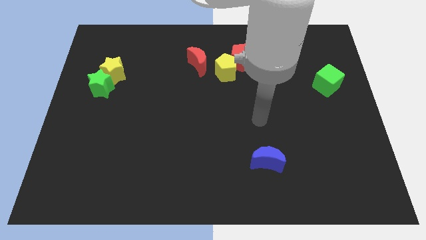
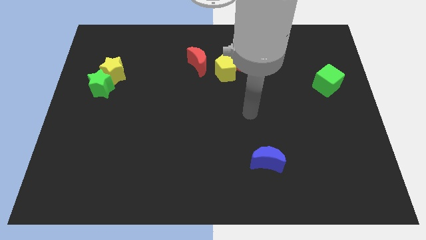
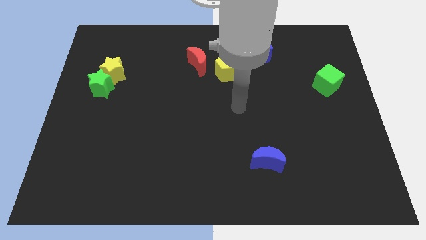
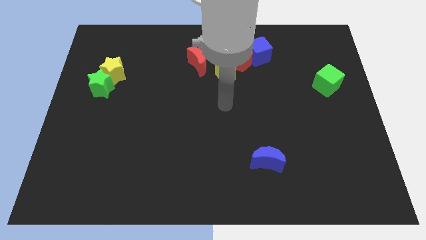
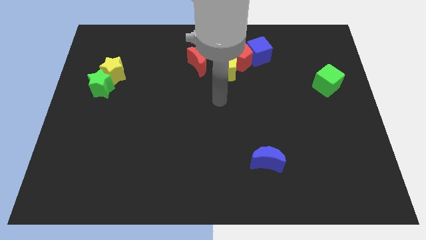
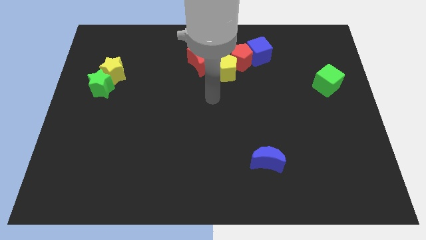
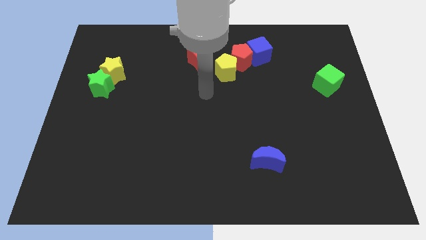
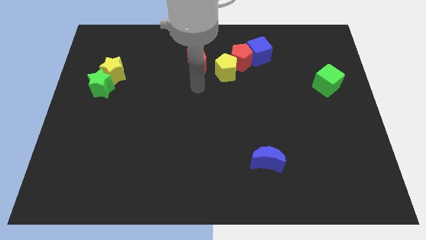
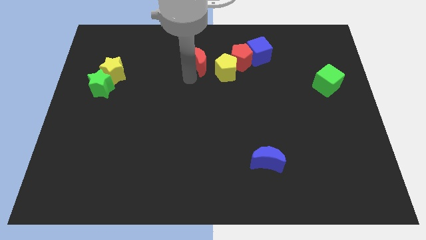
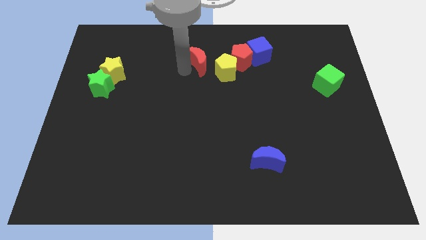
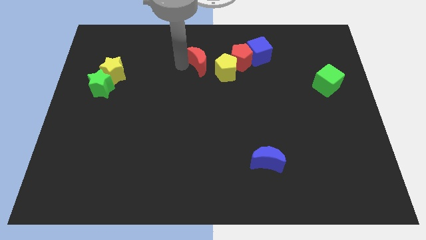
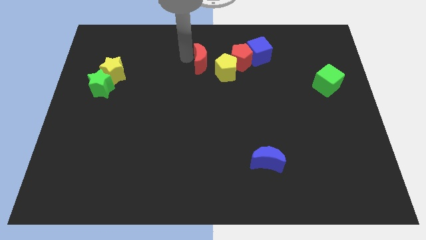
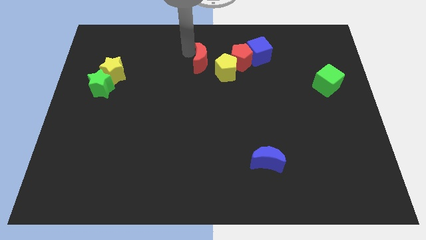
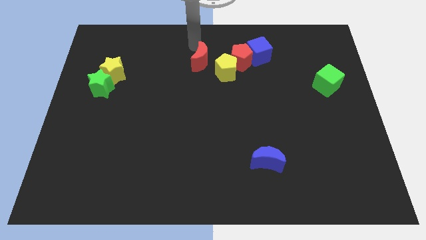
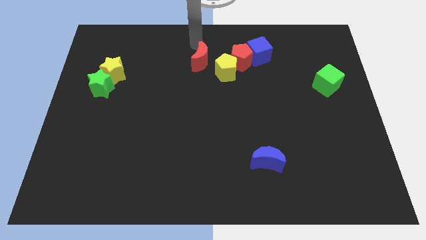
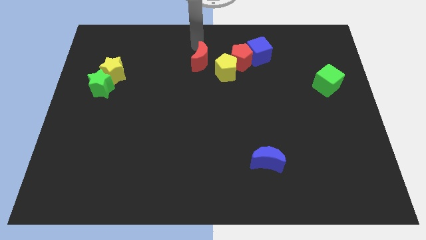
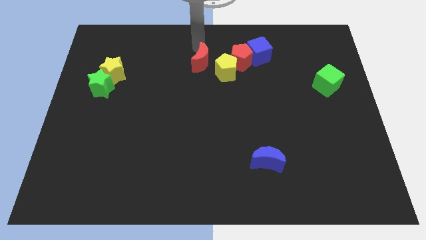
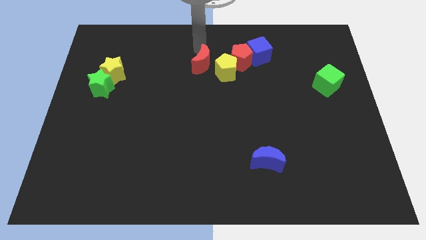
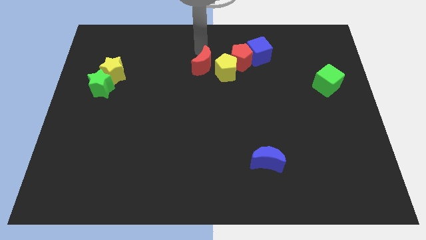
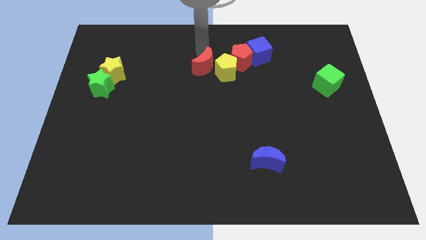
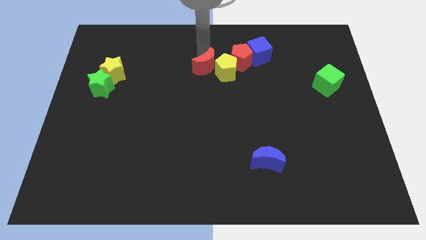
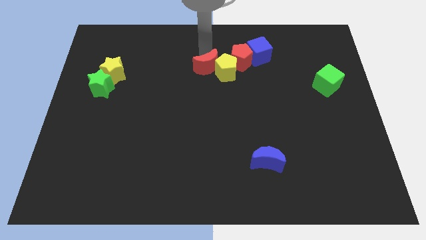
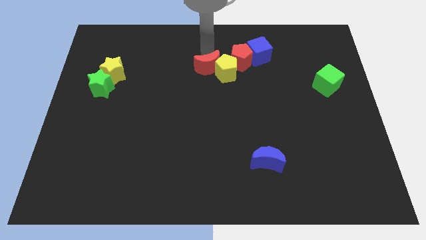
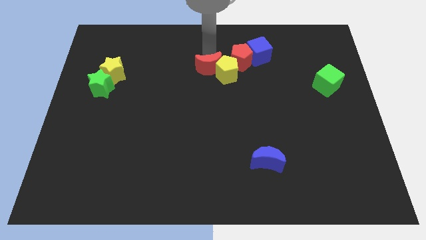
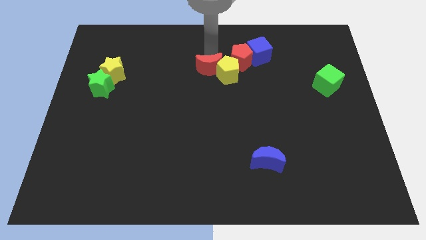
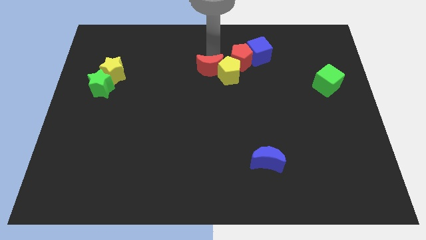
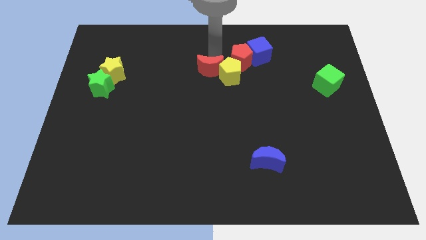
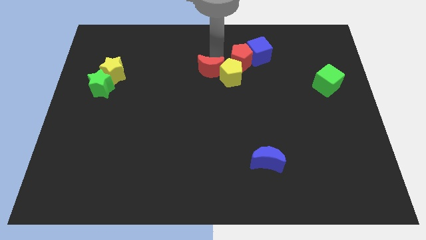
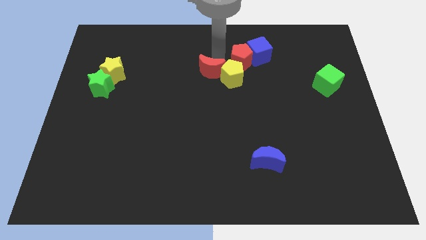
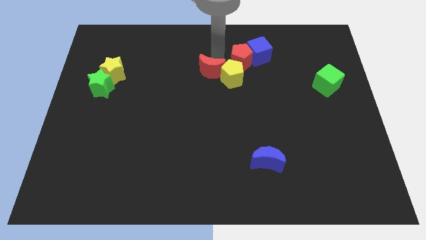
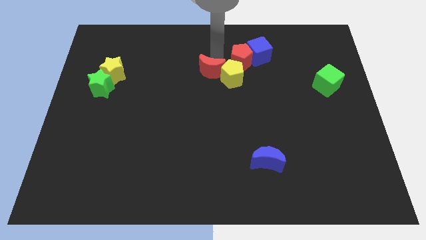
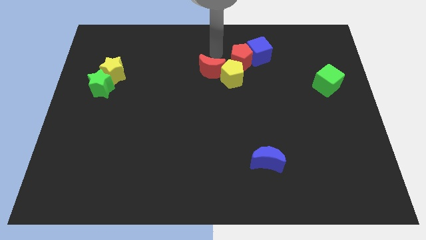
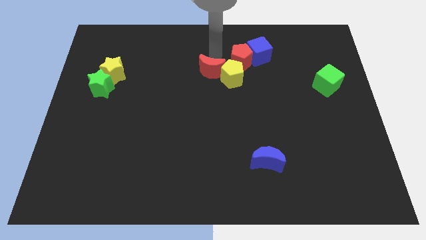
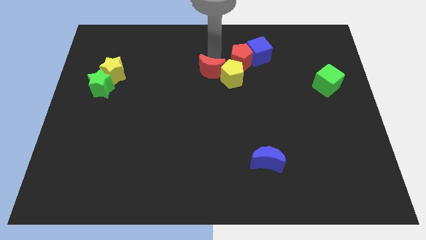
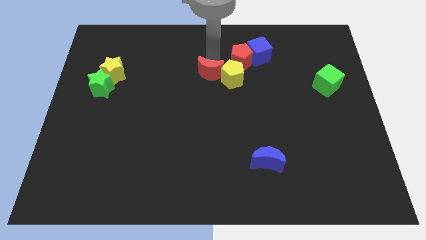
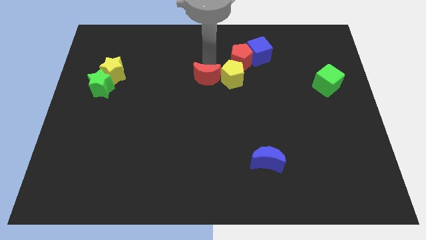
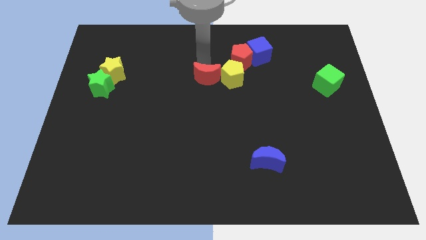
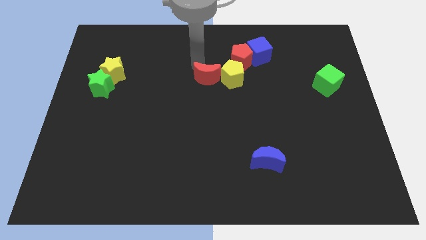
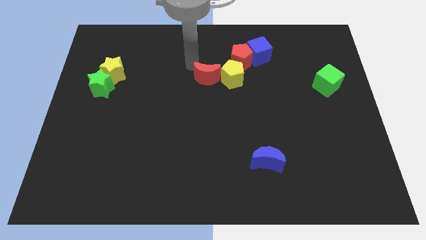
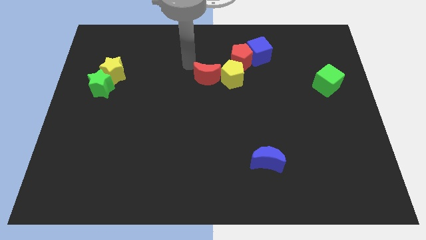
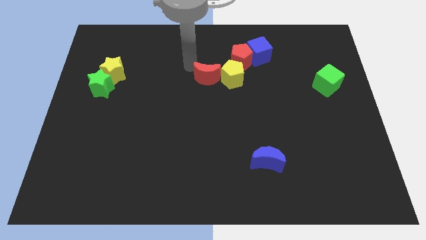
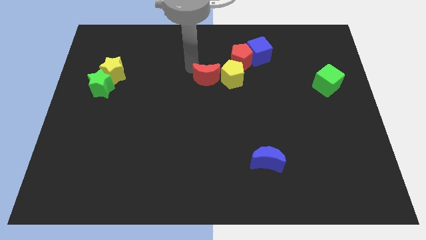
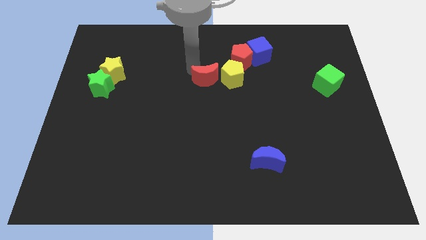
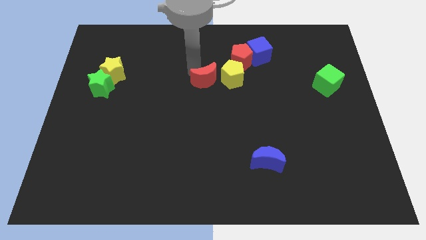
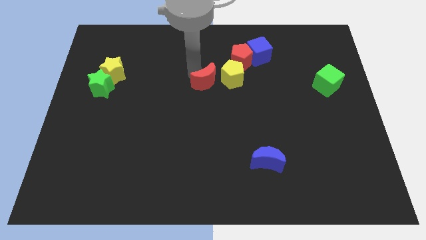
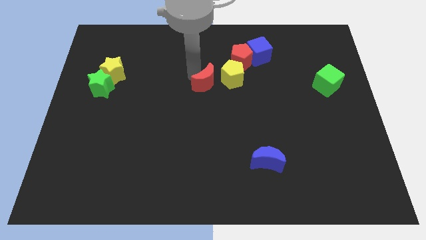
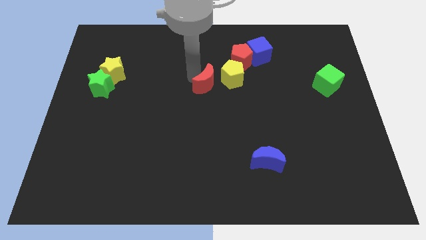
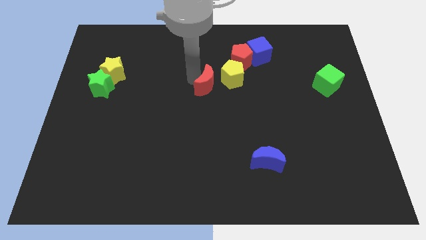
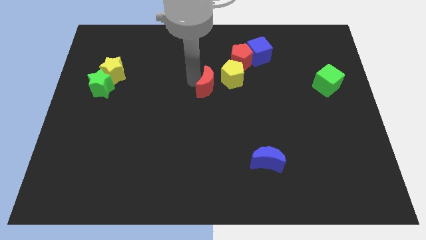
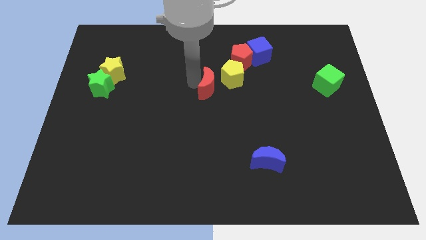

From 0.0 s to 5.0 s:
slide the red moon a little bit down and right

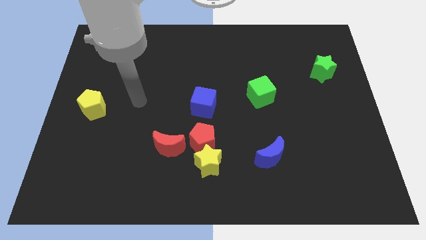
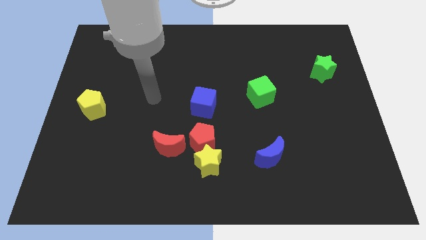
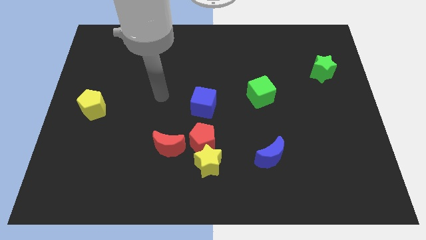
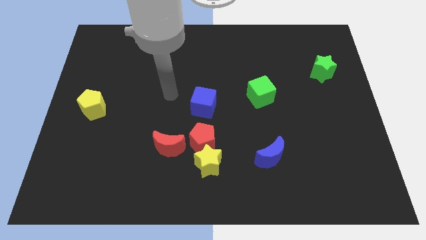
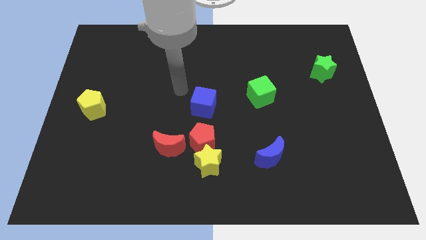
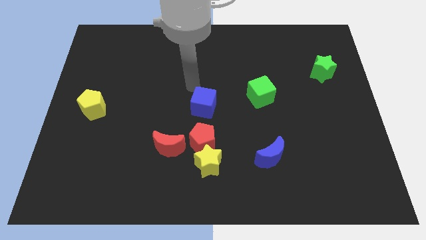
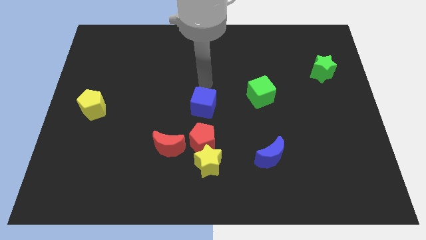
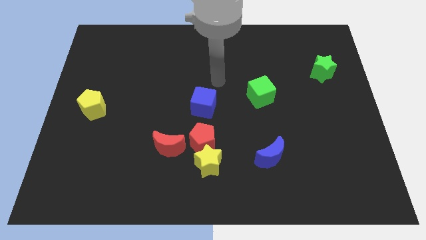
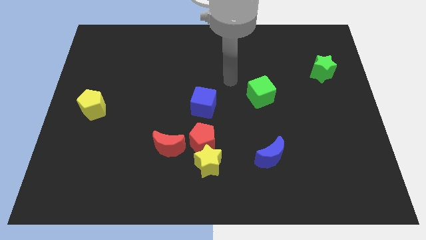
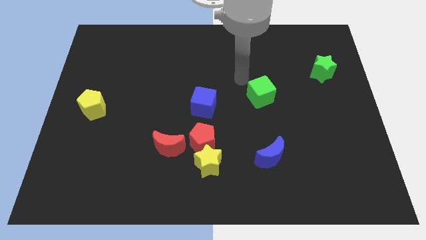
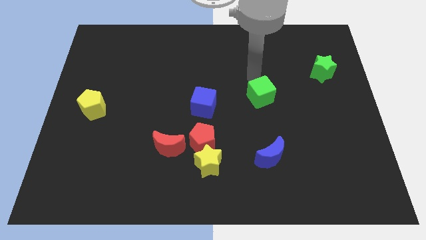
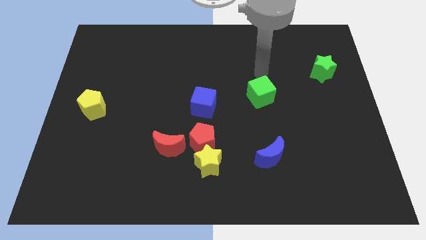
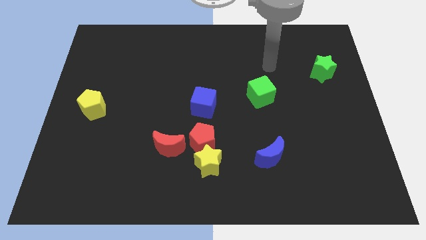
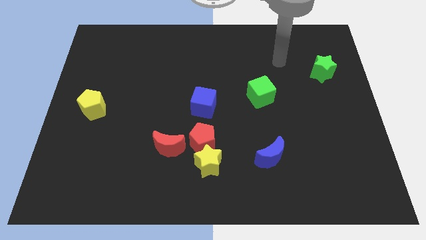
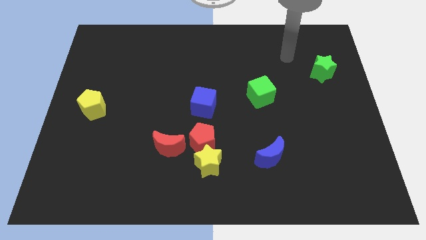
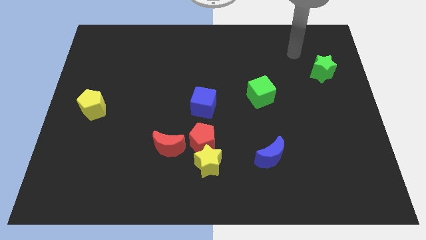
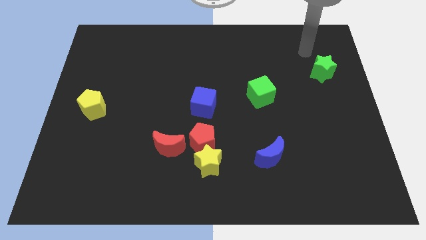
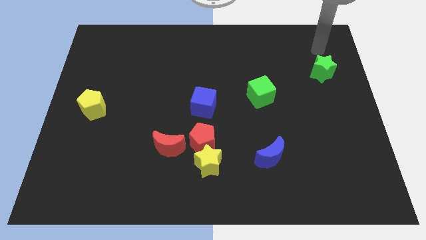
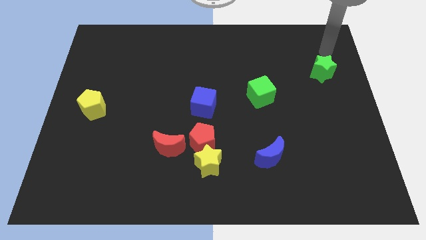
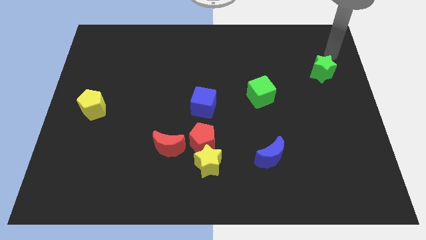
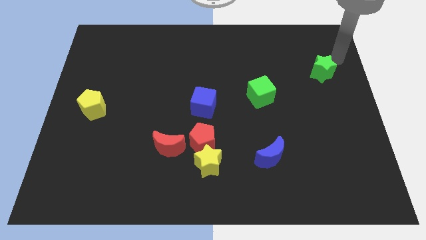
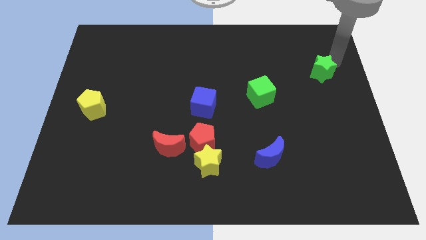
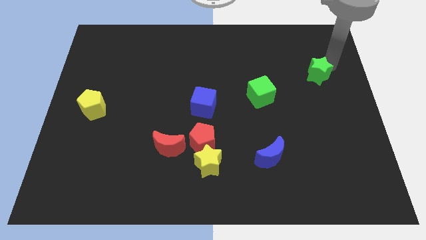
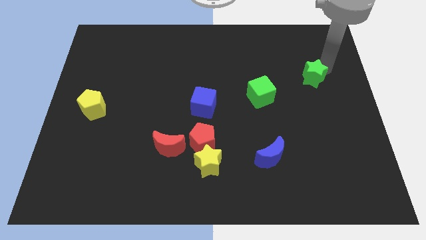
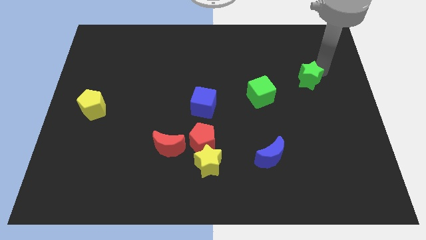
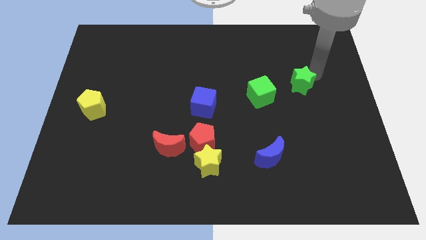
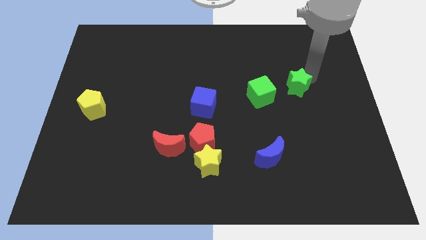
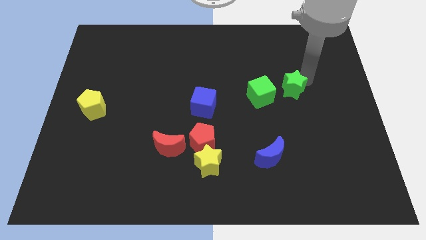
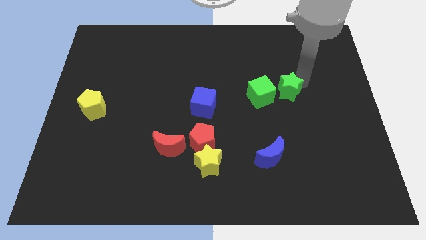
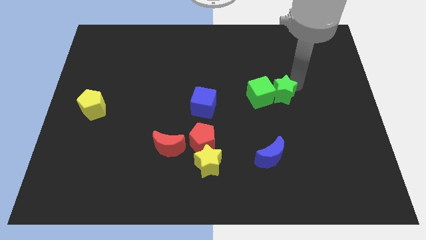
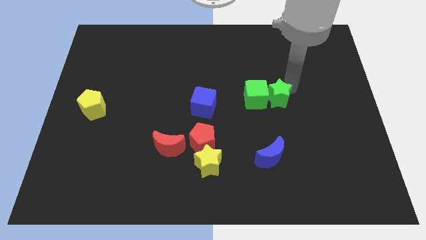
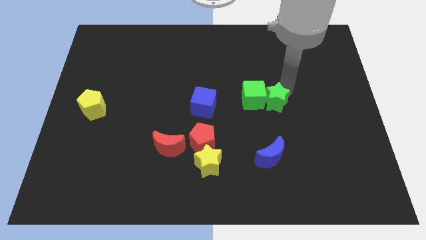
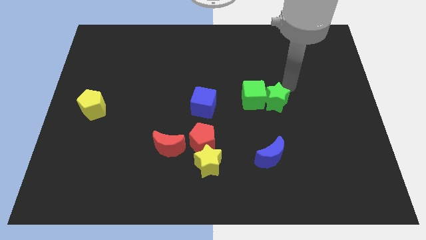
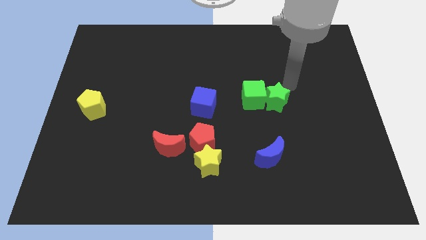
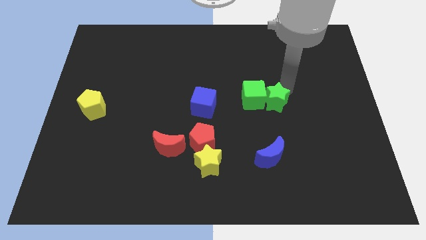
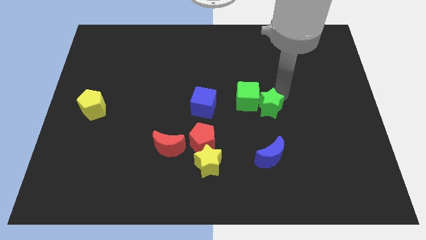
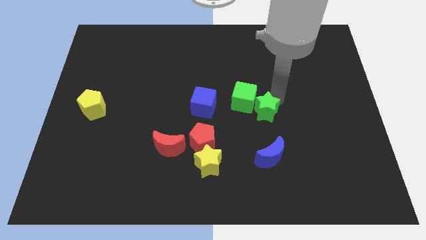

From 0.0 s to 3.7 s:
move the green star down and then to the left
